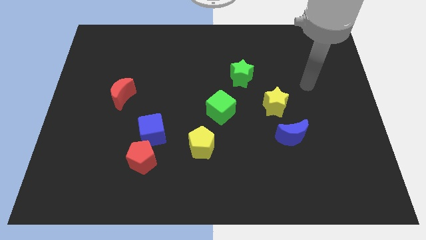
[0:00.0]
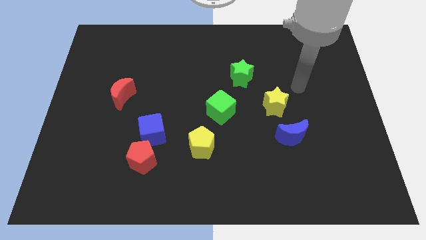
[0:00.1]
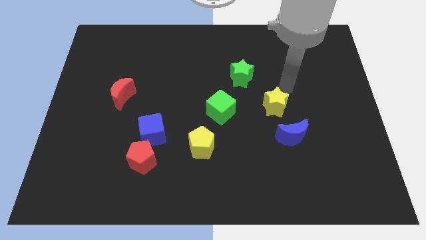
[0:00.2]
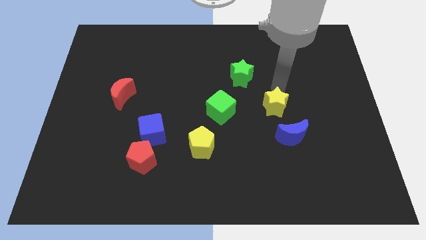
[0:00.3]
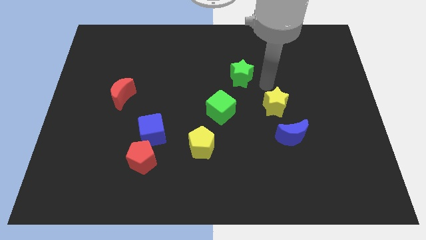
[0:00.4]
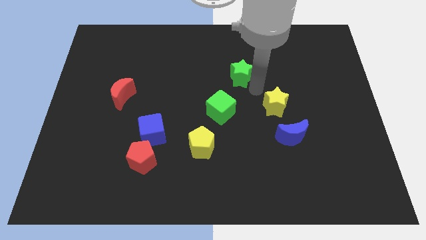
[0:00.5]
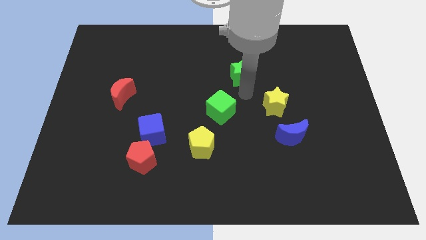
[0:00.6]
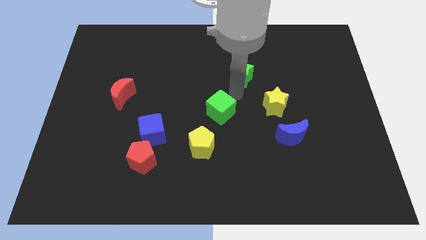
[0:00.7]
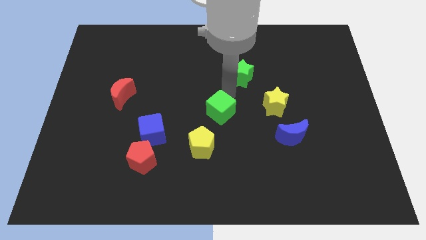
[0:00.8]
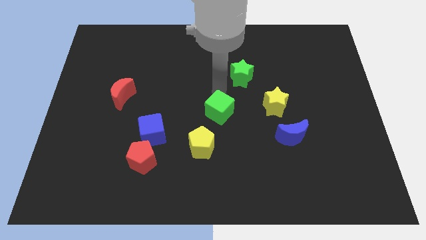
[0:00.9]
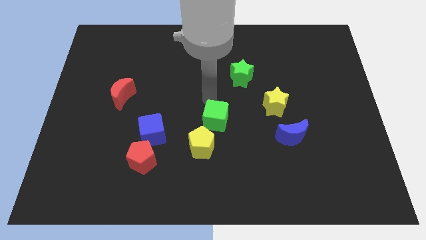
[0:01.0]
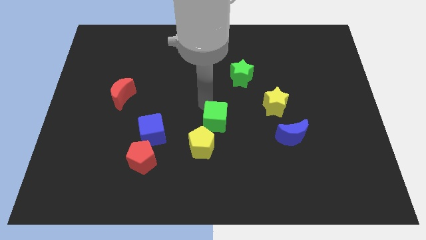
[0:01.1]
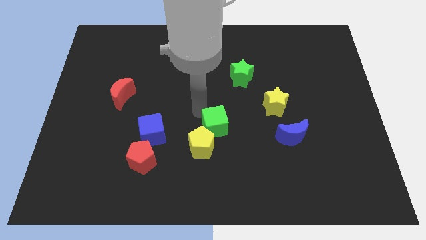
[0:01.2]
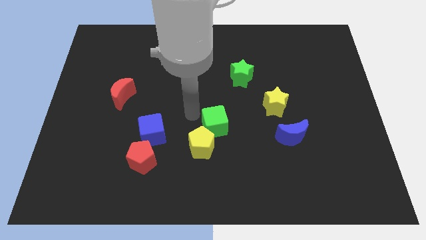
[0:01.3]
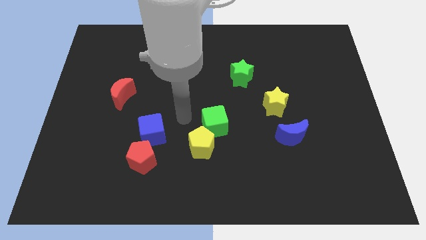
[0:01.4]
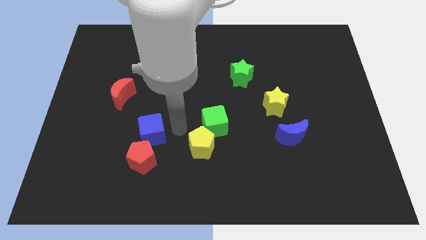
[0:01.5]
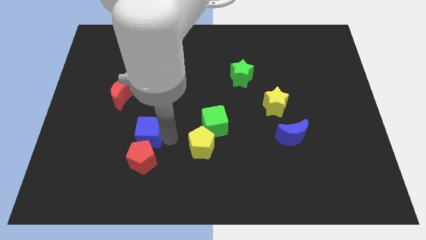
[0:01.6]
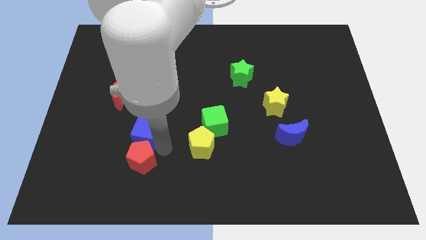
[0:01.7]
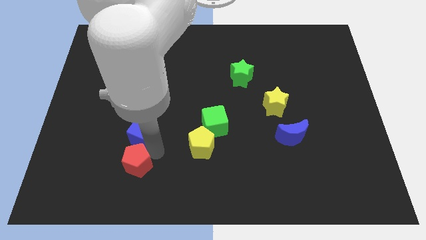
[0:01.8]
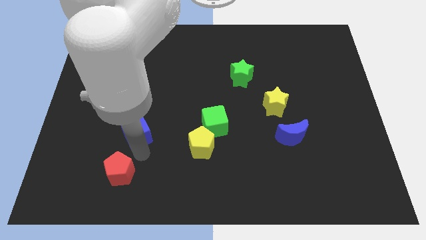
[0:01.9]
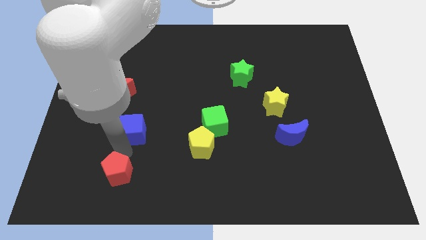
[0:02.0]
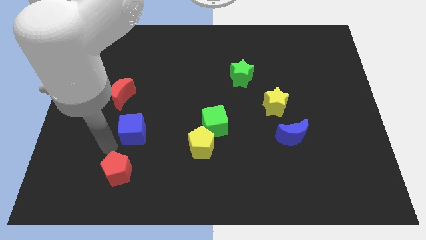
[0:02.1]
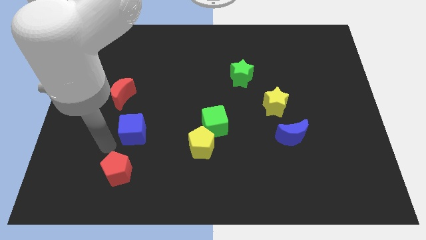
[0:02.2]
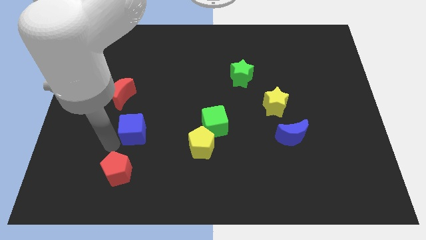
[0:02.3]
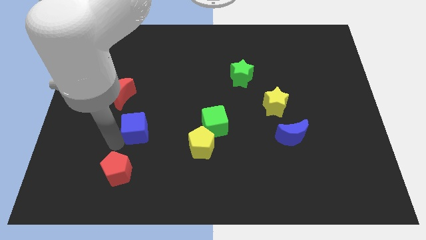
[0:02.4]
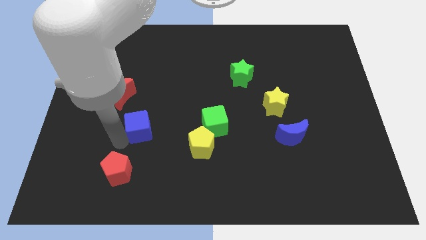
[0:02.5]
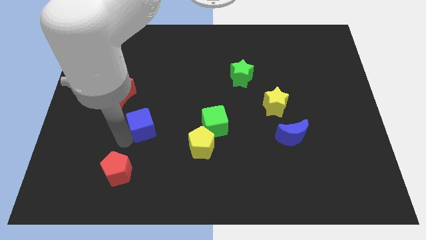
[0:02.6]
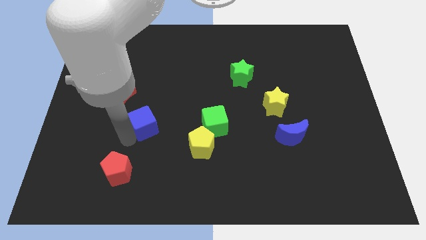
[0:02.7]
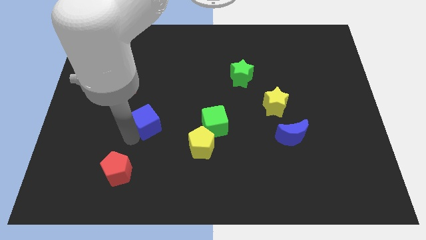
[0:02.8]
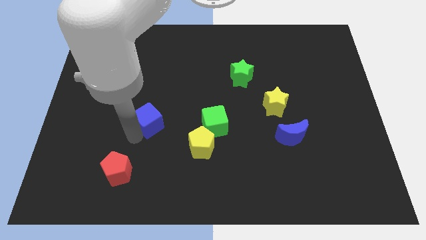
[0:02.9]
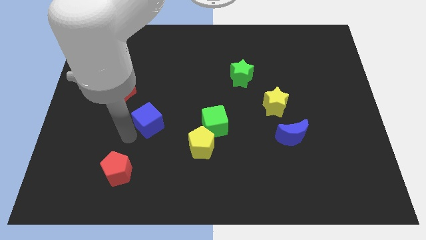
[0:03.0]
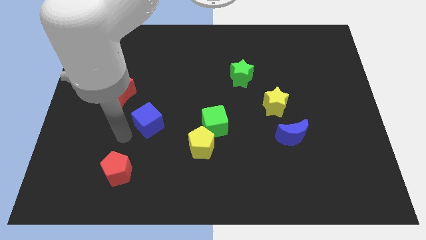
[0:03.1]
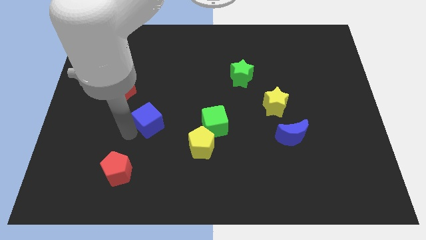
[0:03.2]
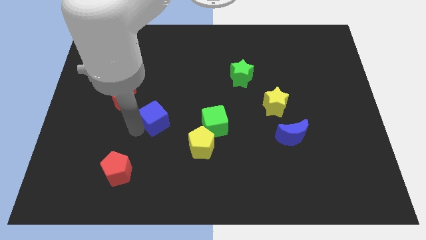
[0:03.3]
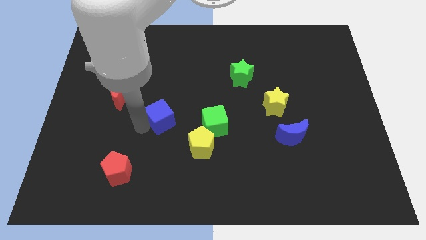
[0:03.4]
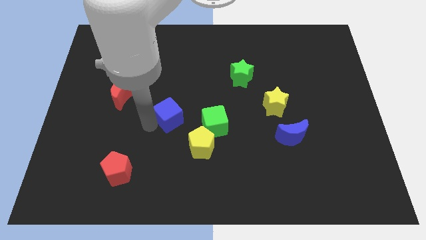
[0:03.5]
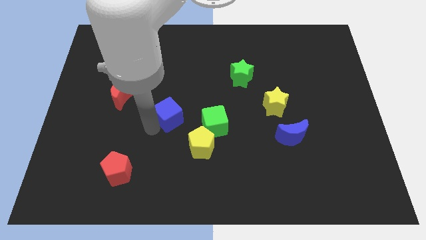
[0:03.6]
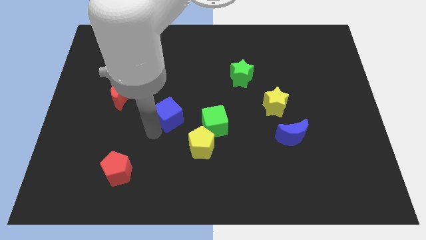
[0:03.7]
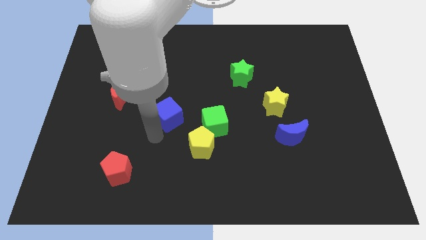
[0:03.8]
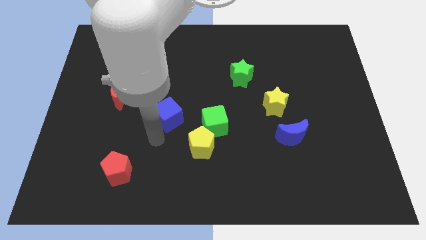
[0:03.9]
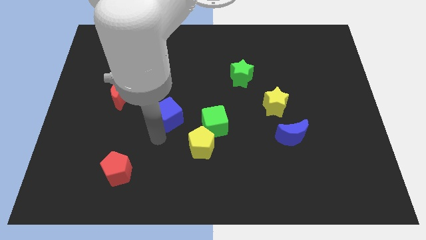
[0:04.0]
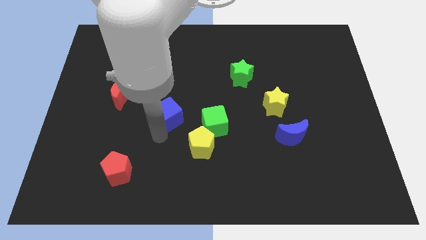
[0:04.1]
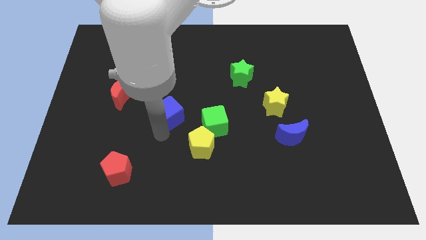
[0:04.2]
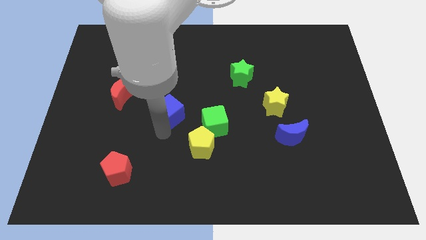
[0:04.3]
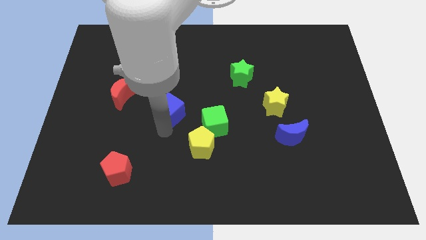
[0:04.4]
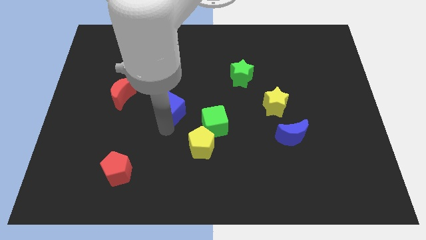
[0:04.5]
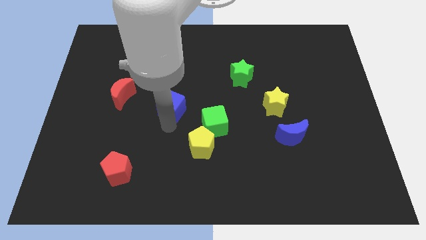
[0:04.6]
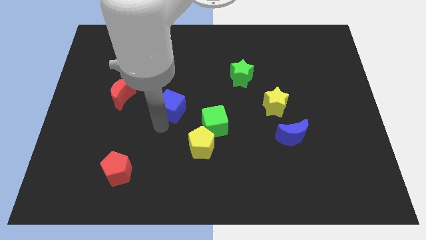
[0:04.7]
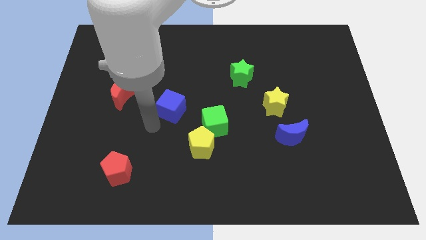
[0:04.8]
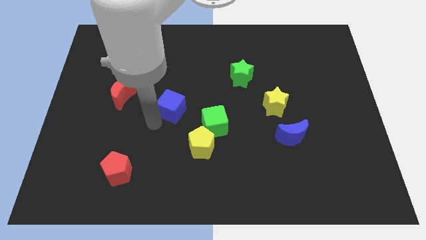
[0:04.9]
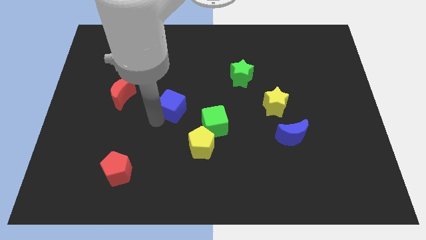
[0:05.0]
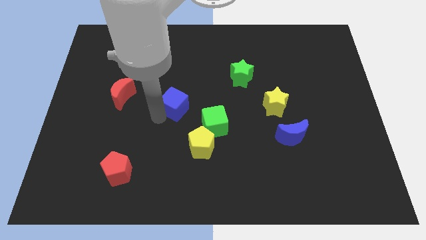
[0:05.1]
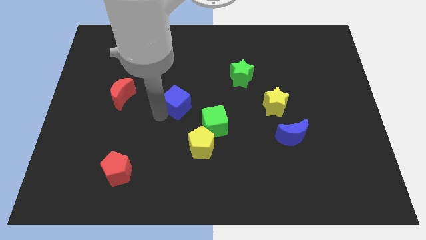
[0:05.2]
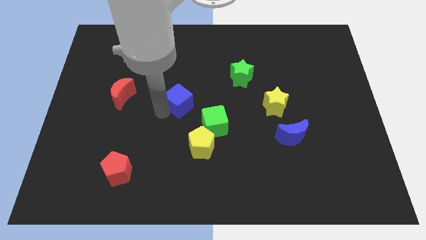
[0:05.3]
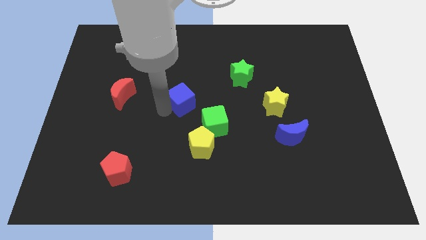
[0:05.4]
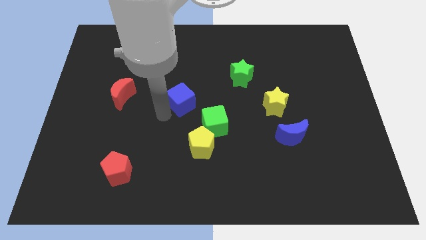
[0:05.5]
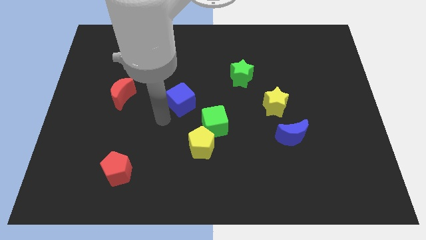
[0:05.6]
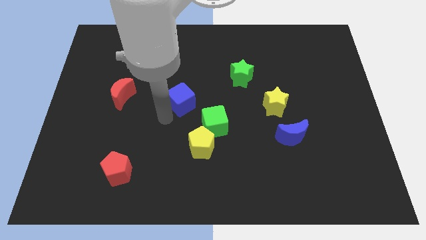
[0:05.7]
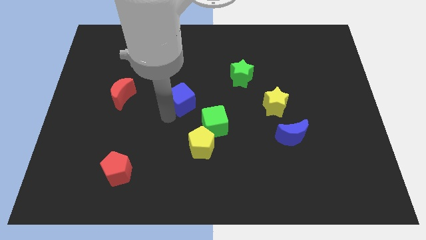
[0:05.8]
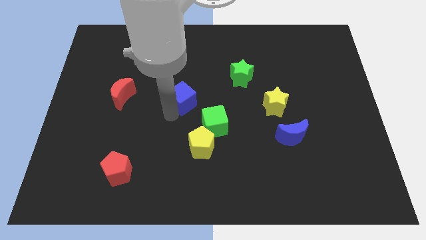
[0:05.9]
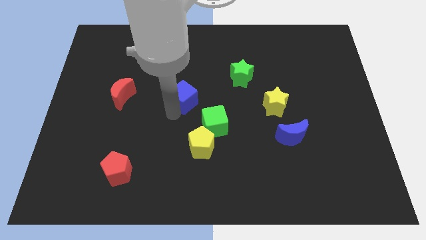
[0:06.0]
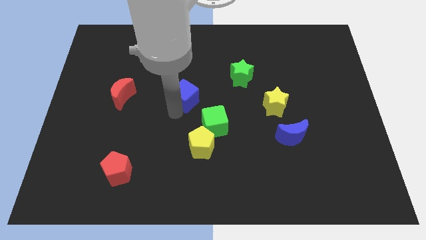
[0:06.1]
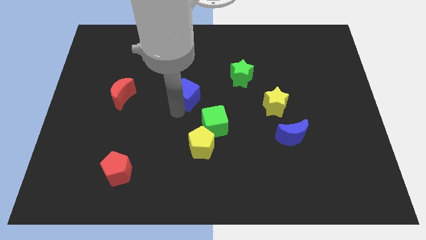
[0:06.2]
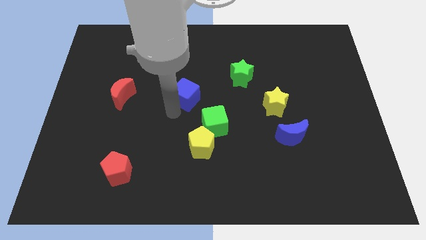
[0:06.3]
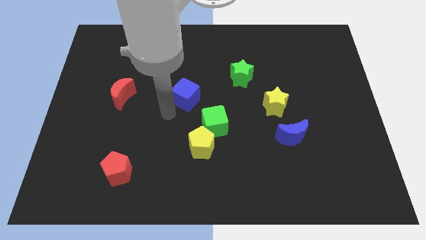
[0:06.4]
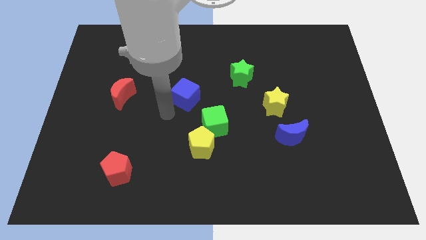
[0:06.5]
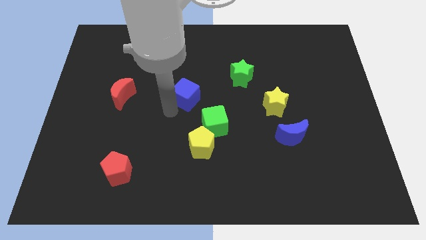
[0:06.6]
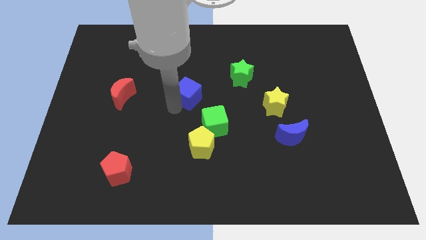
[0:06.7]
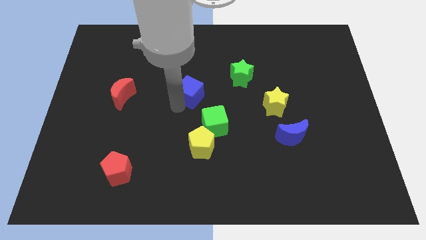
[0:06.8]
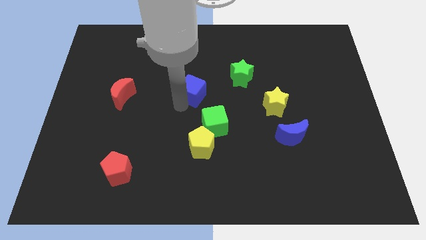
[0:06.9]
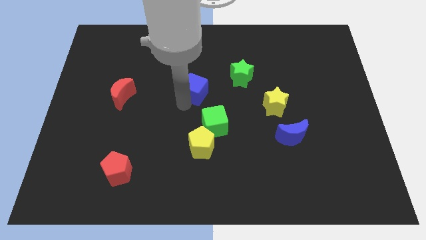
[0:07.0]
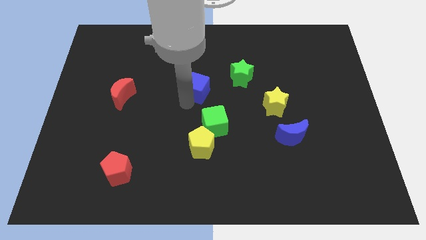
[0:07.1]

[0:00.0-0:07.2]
push the blue cube to the left of the green star

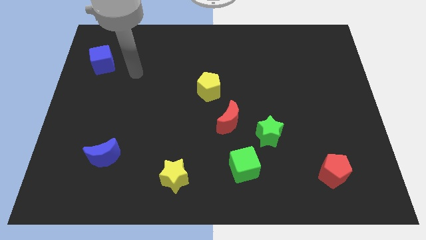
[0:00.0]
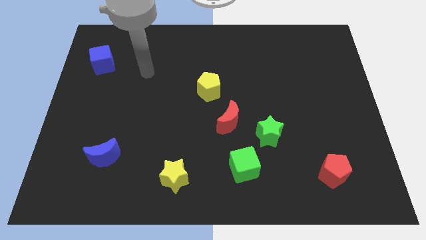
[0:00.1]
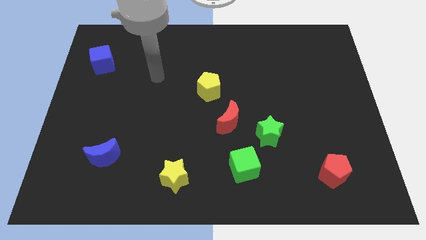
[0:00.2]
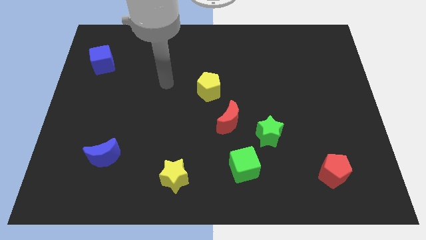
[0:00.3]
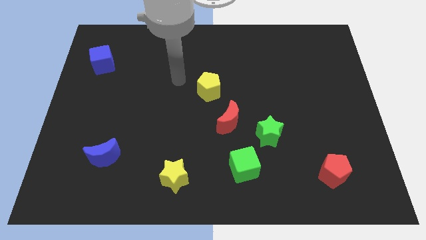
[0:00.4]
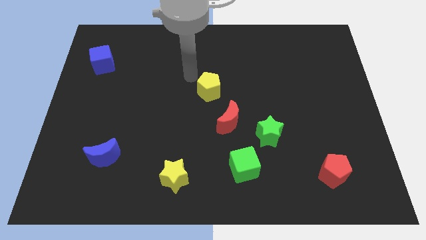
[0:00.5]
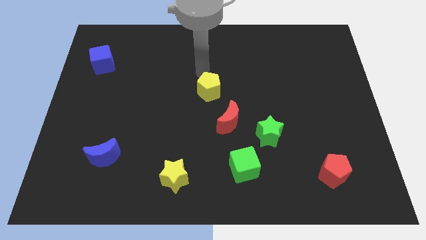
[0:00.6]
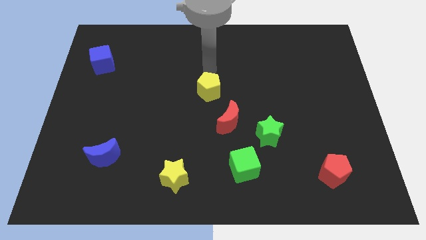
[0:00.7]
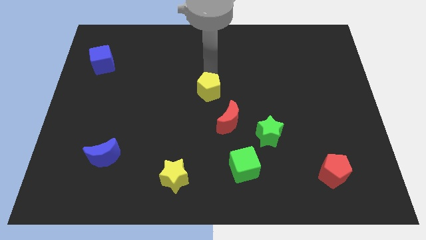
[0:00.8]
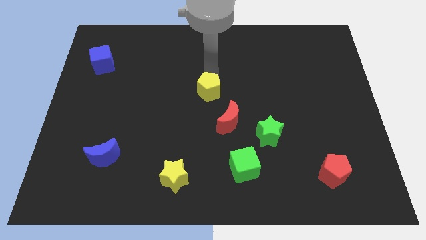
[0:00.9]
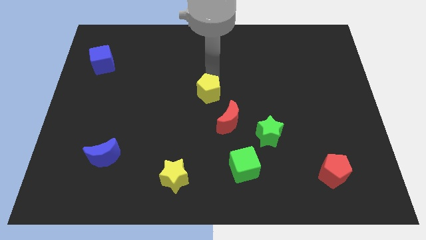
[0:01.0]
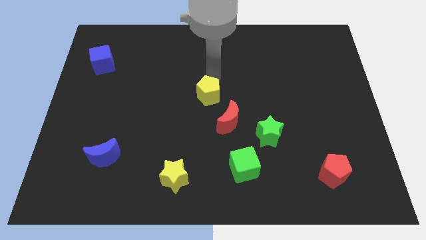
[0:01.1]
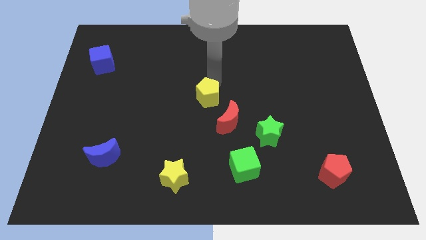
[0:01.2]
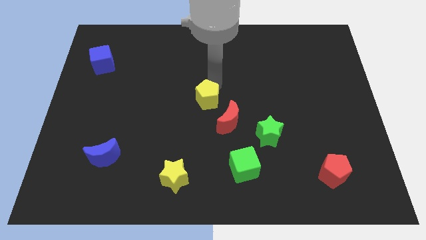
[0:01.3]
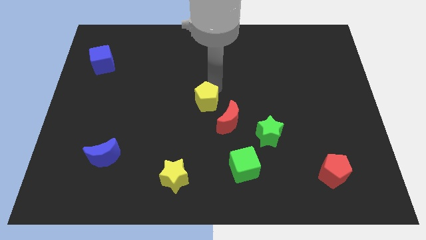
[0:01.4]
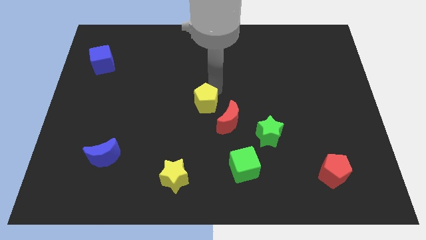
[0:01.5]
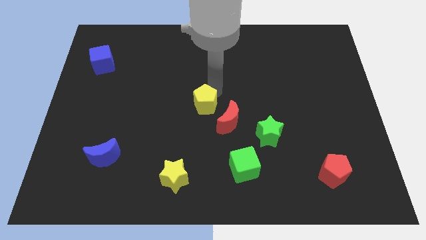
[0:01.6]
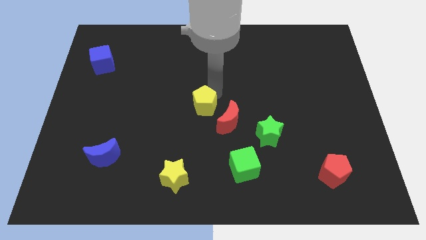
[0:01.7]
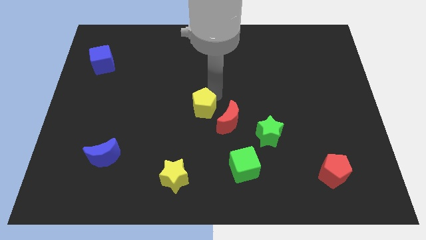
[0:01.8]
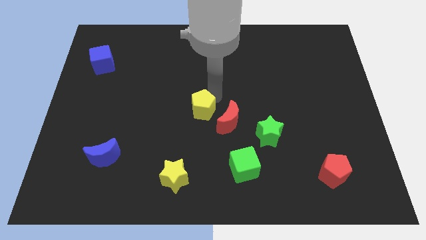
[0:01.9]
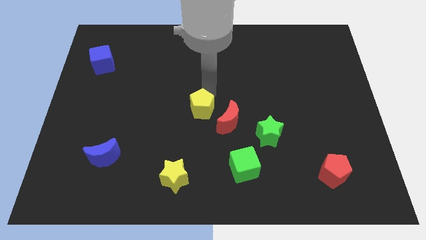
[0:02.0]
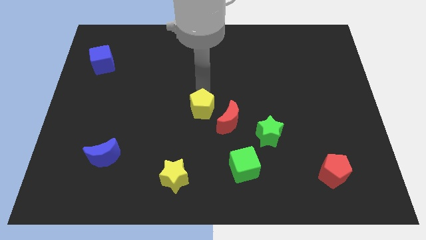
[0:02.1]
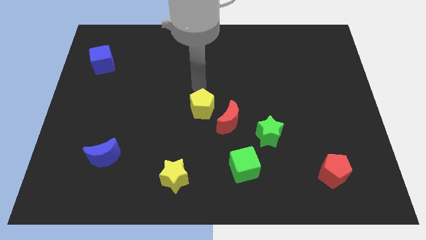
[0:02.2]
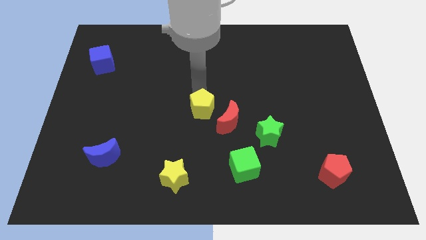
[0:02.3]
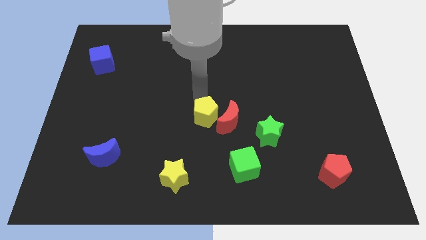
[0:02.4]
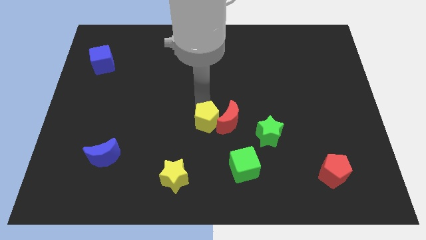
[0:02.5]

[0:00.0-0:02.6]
move the yellow pentagon to the bottom left side of the red moon
